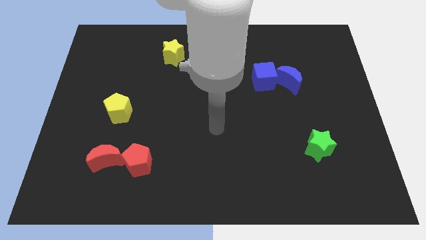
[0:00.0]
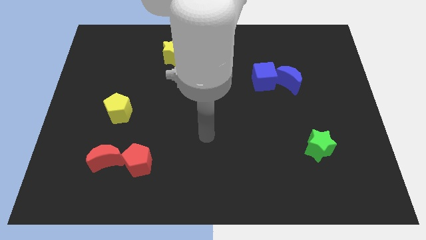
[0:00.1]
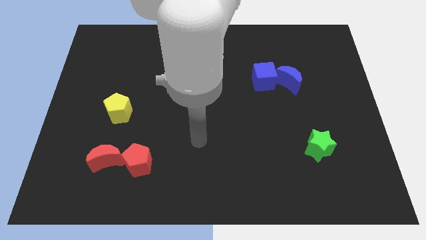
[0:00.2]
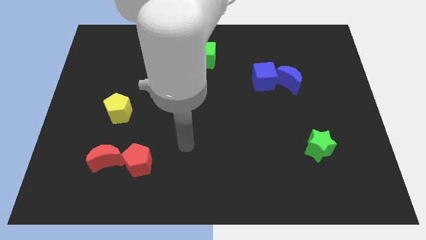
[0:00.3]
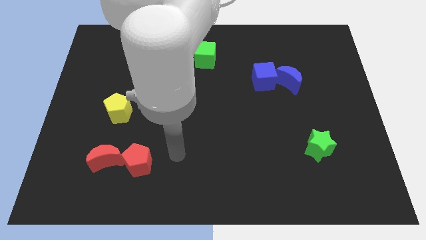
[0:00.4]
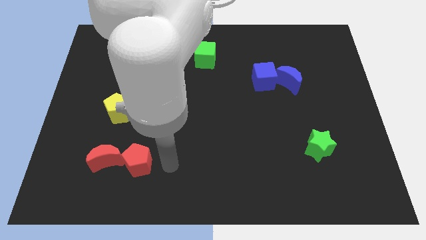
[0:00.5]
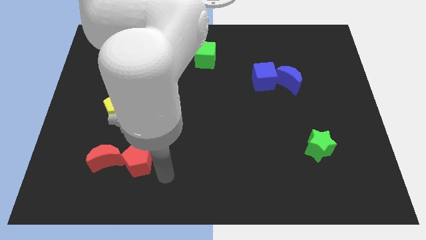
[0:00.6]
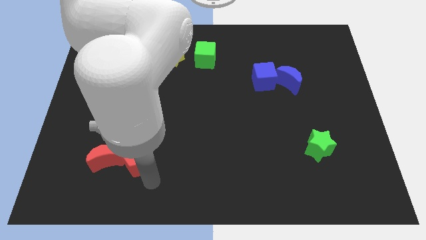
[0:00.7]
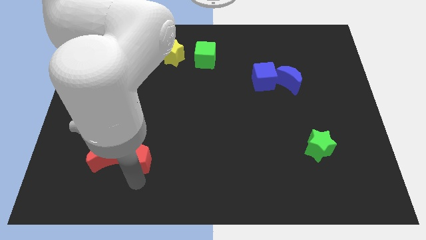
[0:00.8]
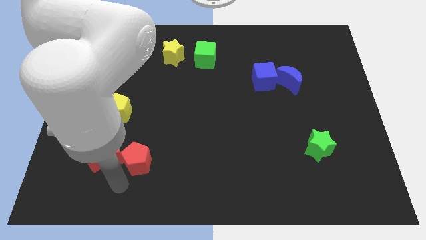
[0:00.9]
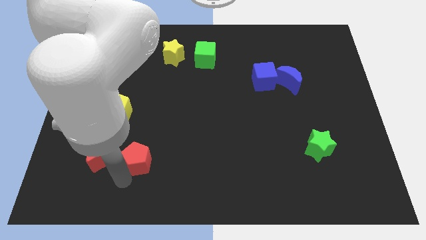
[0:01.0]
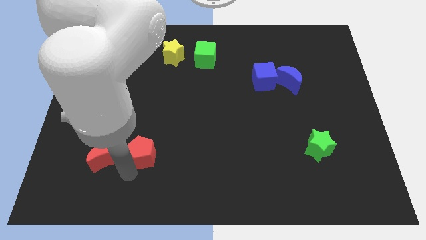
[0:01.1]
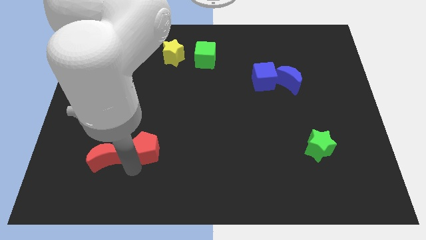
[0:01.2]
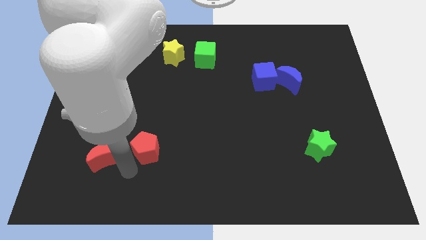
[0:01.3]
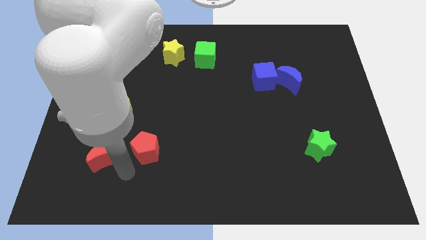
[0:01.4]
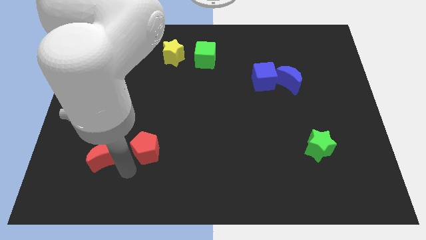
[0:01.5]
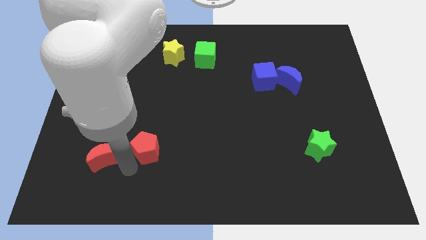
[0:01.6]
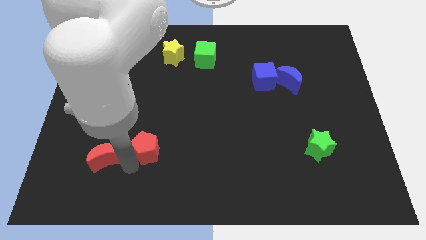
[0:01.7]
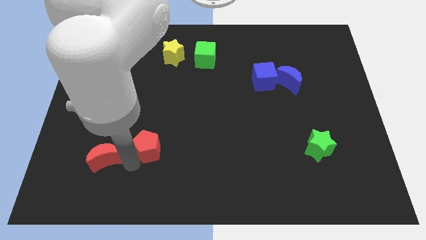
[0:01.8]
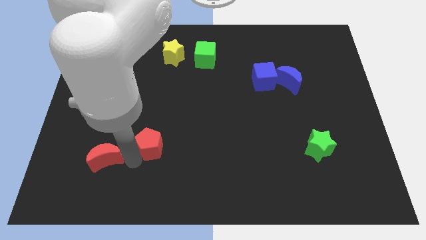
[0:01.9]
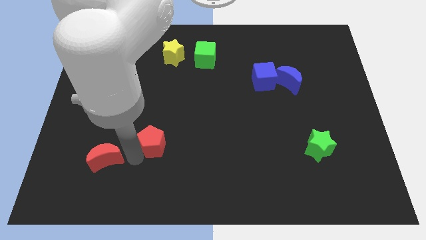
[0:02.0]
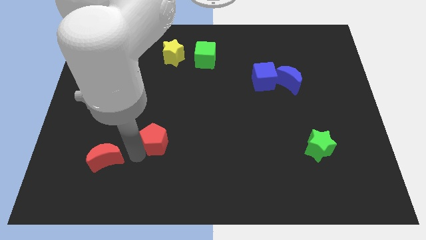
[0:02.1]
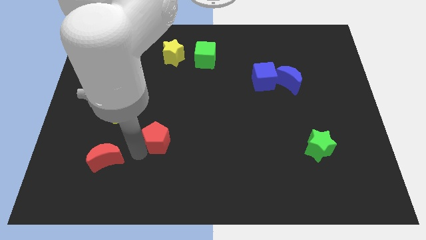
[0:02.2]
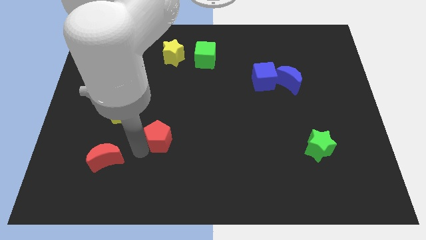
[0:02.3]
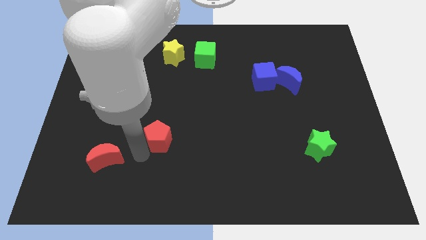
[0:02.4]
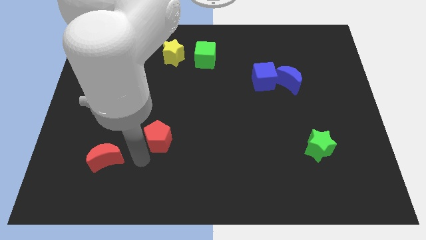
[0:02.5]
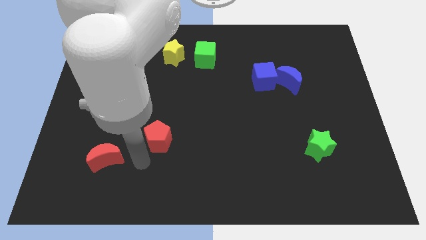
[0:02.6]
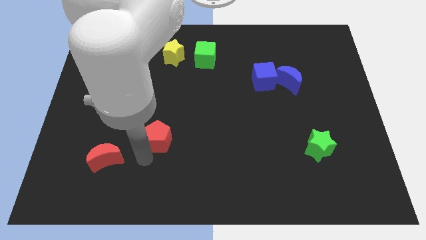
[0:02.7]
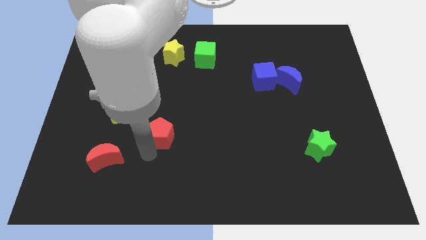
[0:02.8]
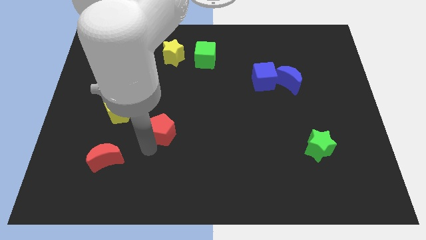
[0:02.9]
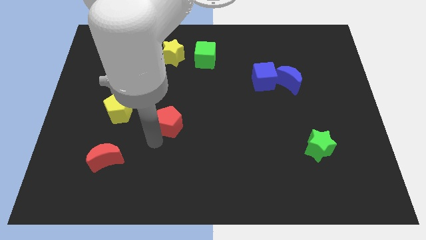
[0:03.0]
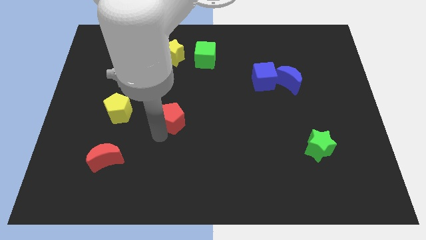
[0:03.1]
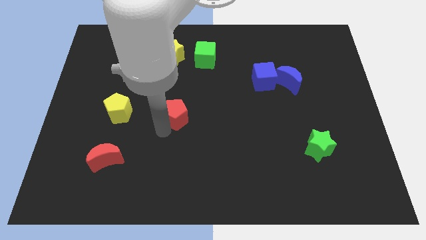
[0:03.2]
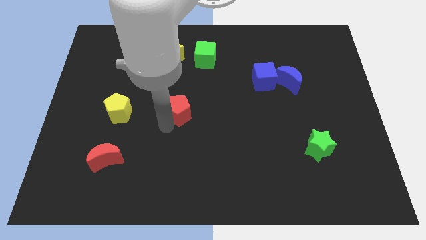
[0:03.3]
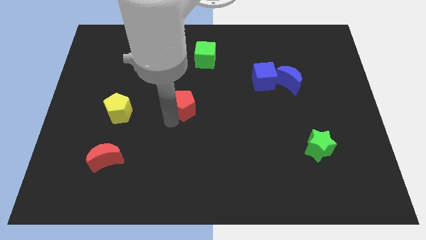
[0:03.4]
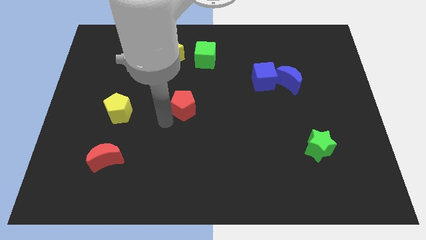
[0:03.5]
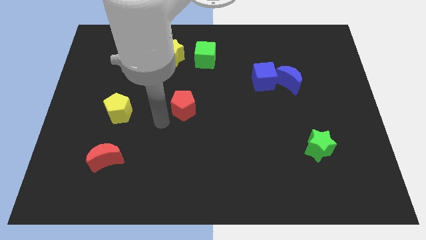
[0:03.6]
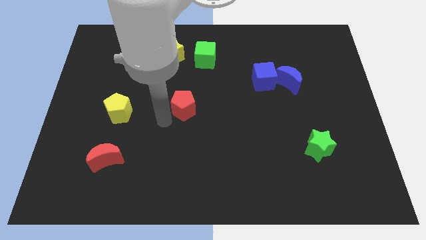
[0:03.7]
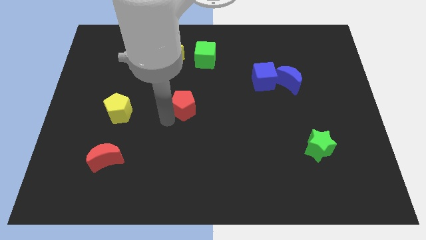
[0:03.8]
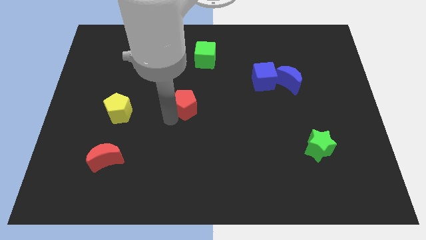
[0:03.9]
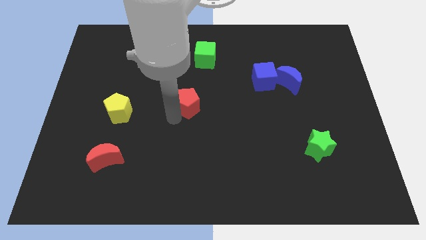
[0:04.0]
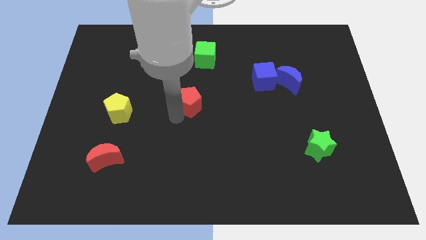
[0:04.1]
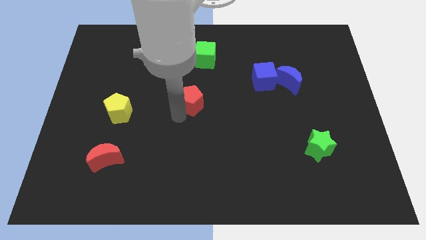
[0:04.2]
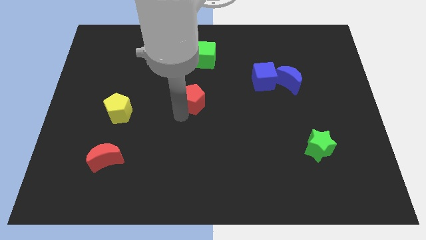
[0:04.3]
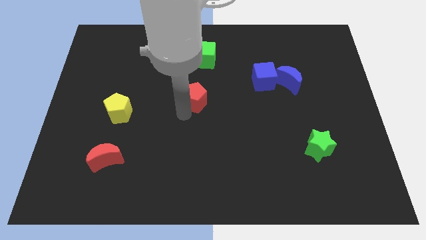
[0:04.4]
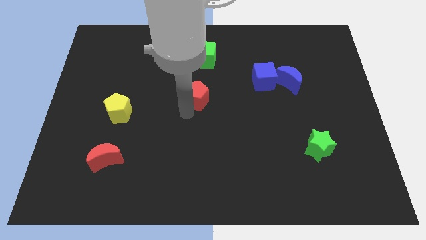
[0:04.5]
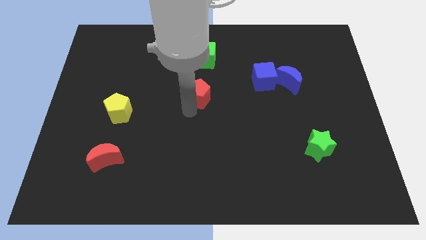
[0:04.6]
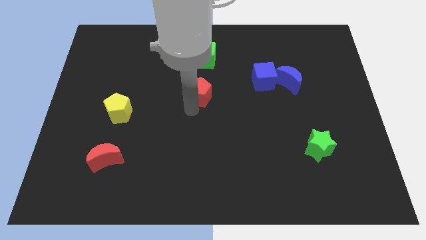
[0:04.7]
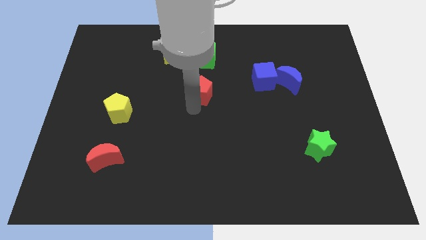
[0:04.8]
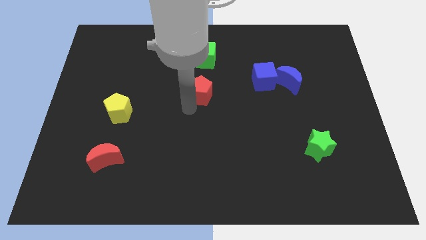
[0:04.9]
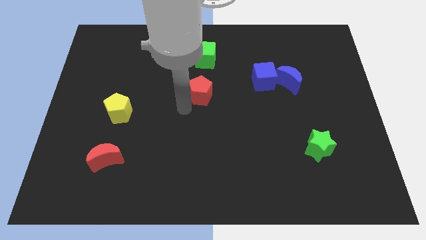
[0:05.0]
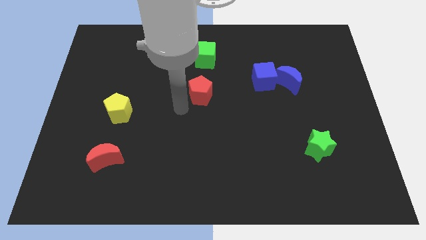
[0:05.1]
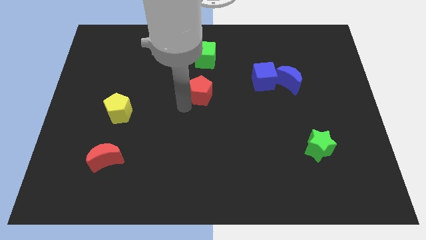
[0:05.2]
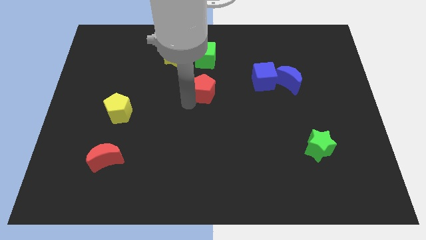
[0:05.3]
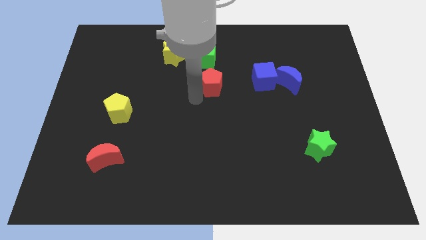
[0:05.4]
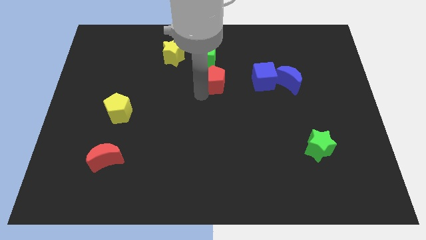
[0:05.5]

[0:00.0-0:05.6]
put the red pentagon to the bottom right side of the green cube

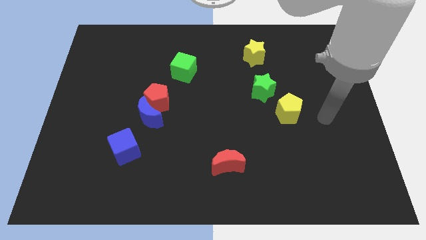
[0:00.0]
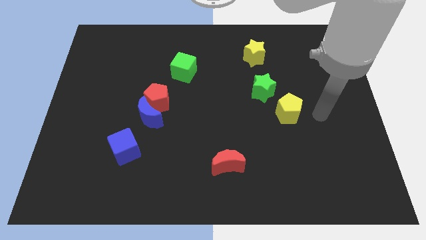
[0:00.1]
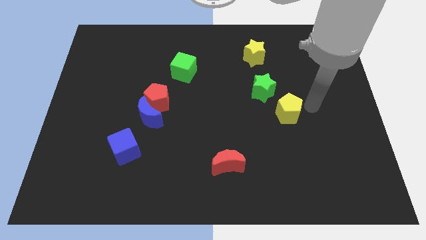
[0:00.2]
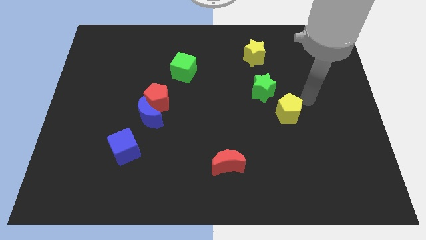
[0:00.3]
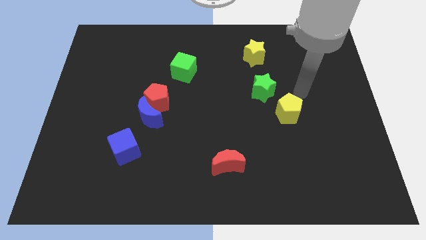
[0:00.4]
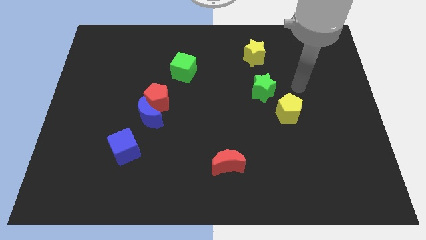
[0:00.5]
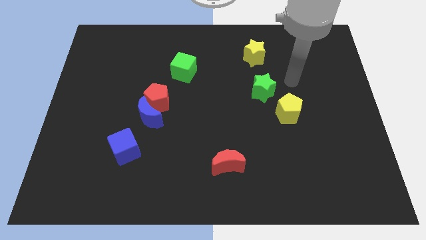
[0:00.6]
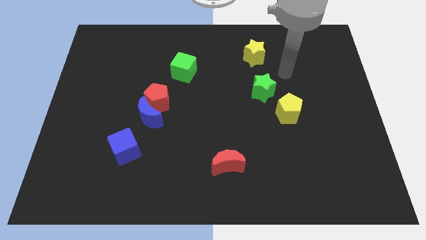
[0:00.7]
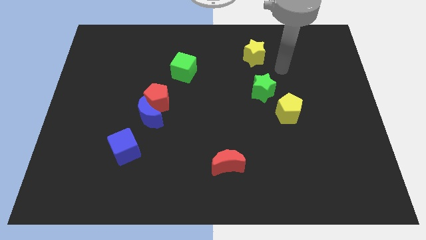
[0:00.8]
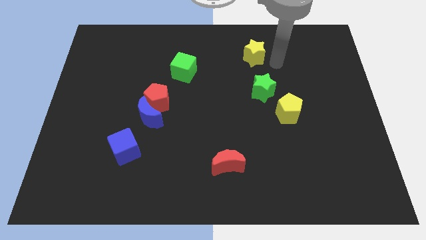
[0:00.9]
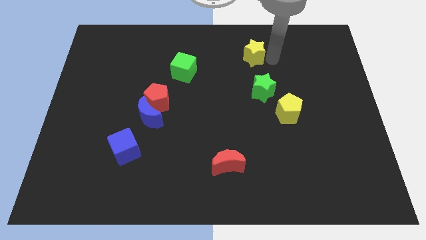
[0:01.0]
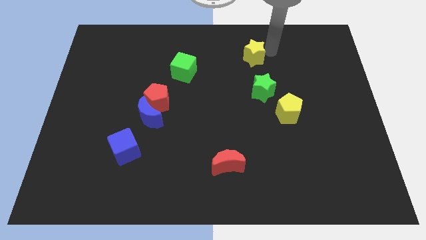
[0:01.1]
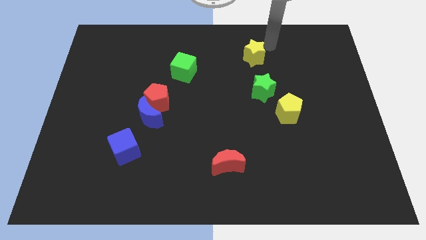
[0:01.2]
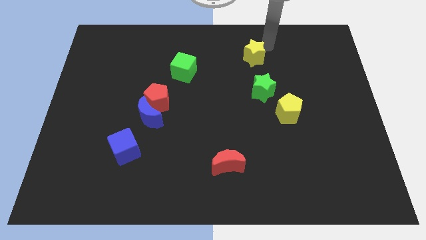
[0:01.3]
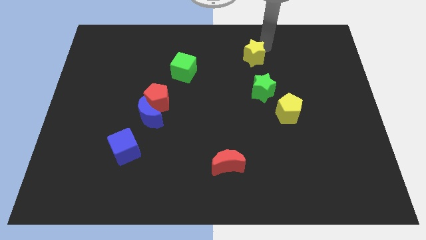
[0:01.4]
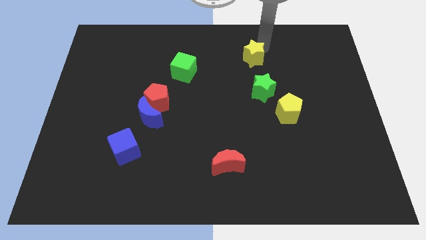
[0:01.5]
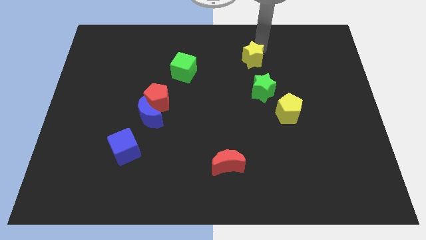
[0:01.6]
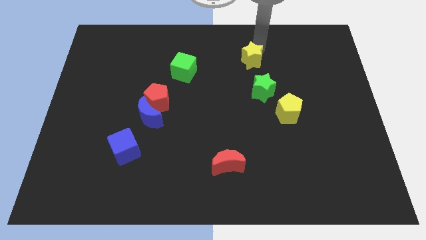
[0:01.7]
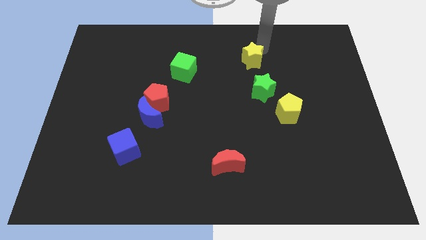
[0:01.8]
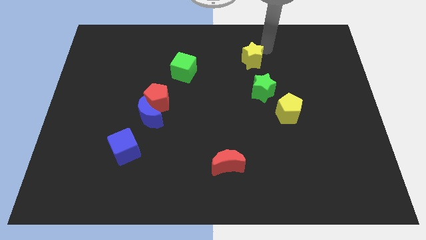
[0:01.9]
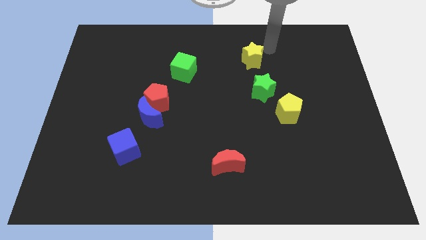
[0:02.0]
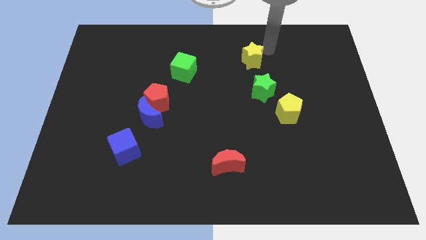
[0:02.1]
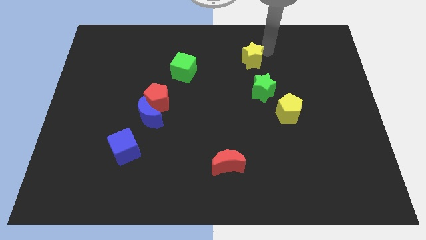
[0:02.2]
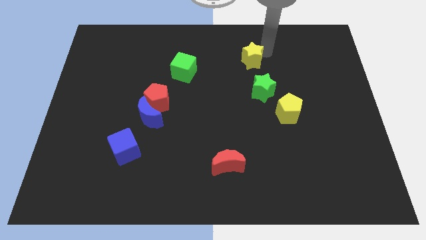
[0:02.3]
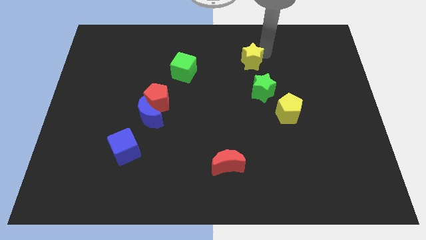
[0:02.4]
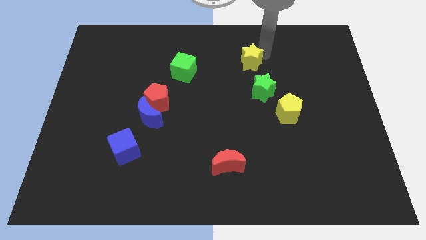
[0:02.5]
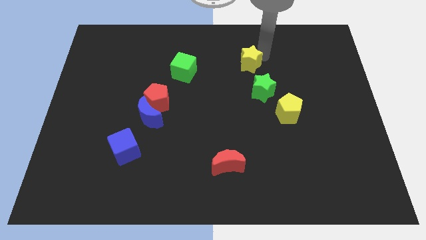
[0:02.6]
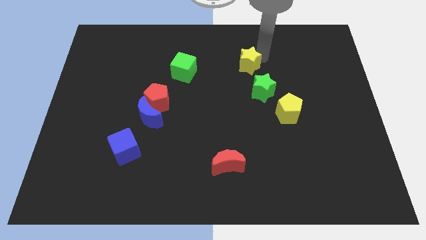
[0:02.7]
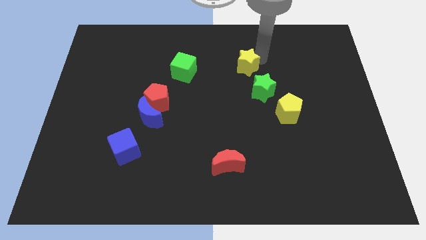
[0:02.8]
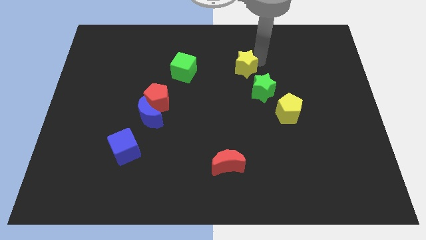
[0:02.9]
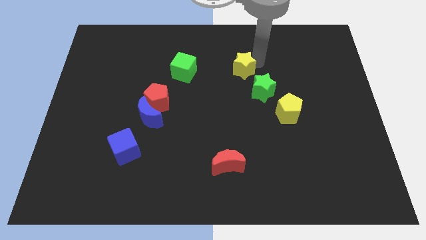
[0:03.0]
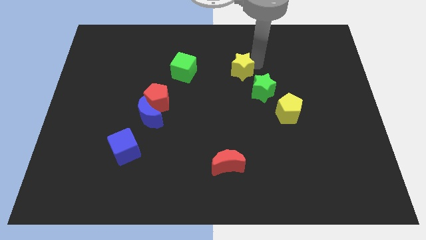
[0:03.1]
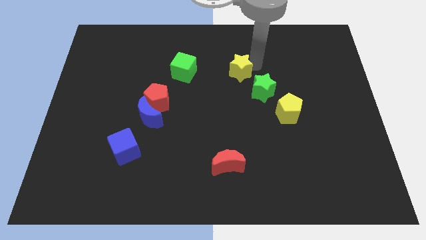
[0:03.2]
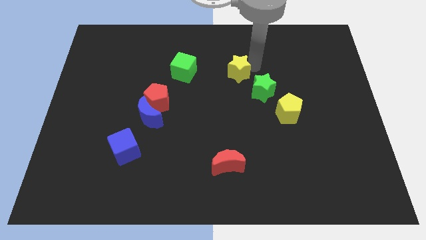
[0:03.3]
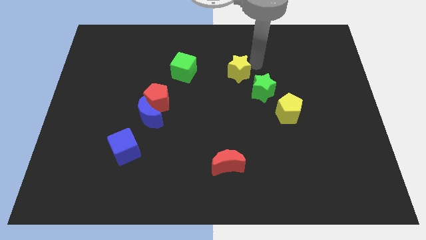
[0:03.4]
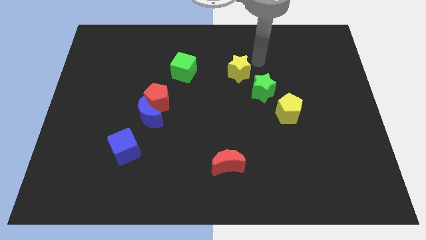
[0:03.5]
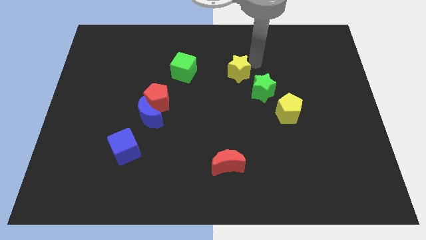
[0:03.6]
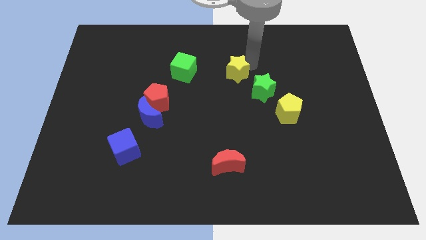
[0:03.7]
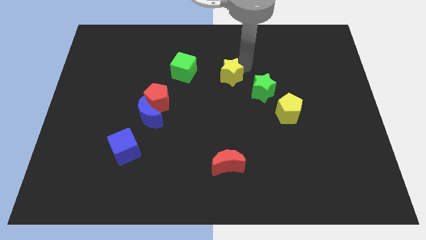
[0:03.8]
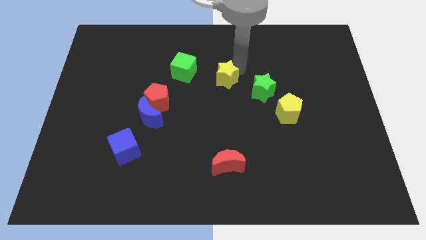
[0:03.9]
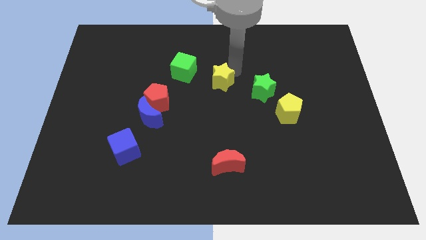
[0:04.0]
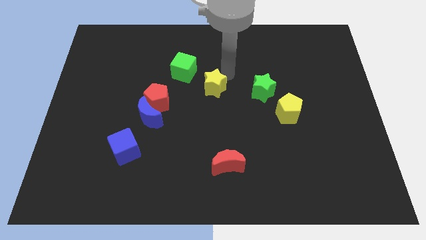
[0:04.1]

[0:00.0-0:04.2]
push the yellow star just right of the red pentagon
